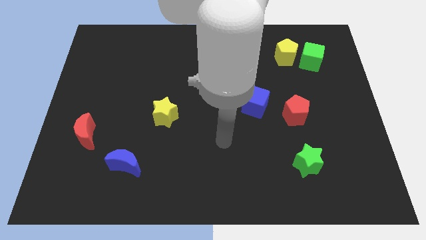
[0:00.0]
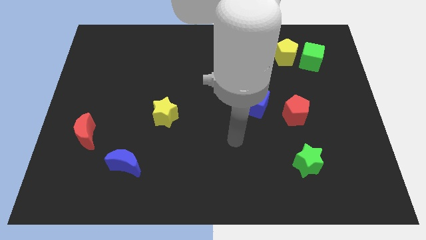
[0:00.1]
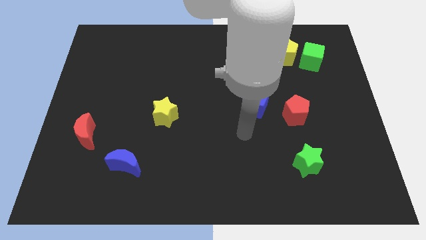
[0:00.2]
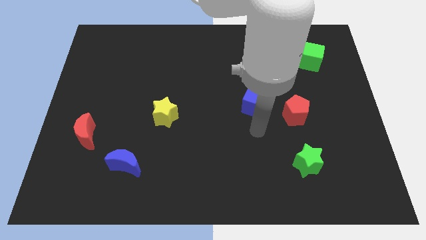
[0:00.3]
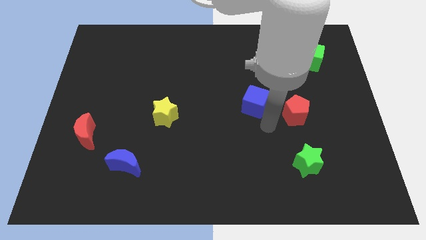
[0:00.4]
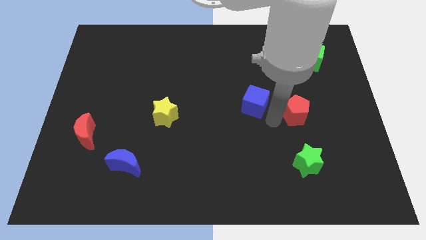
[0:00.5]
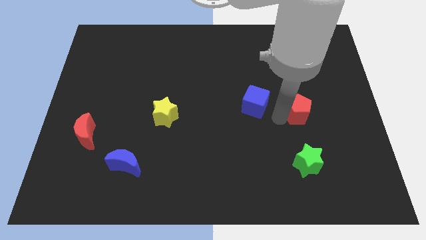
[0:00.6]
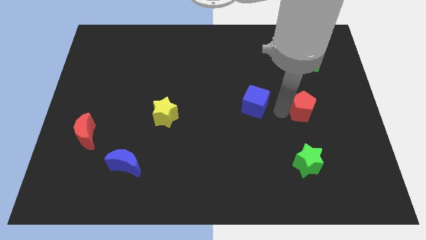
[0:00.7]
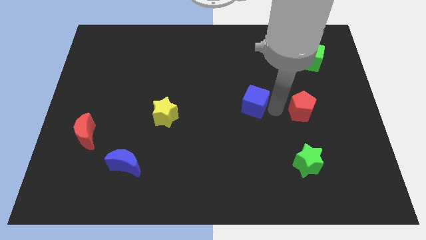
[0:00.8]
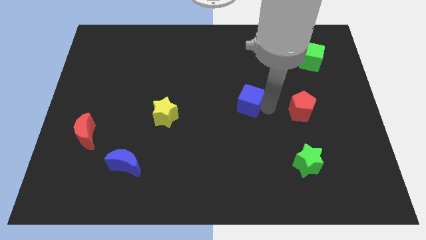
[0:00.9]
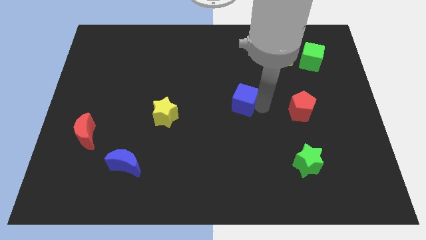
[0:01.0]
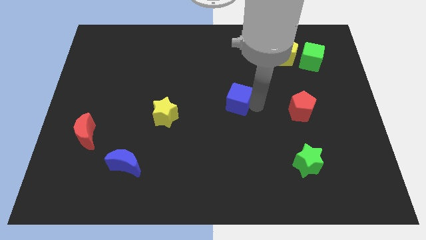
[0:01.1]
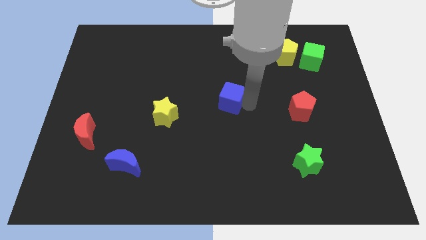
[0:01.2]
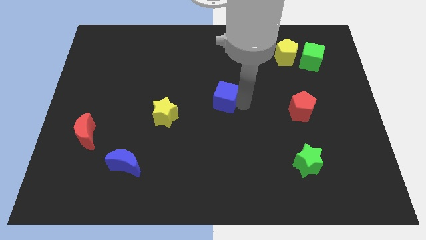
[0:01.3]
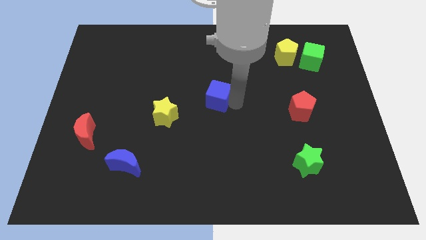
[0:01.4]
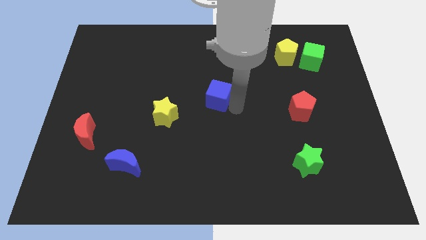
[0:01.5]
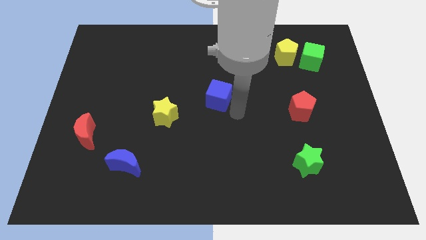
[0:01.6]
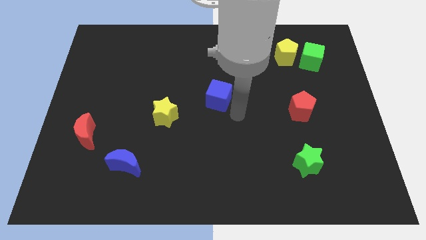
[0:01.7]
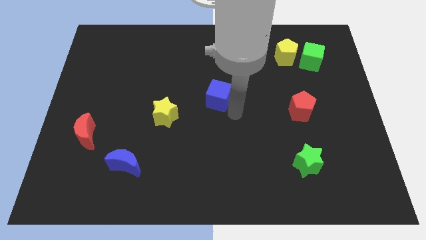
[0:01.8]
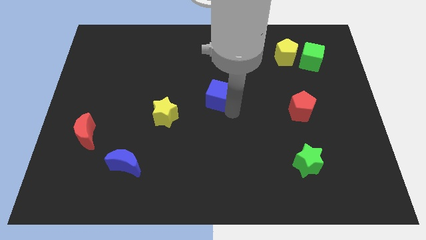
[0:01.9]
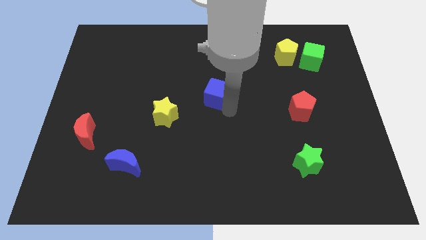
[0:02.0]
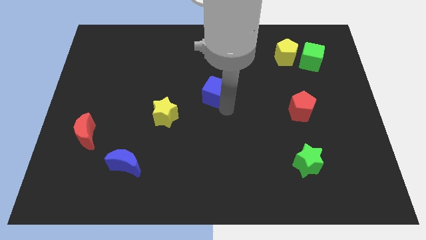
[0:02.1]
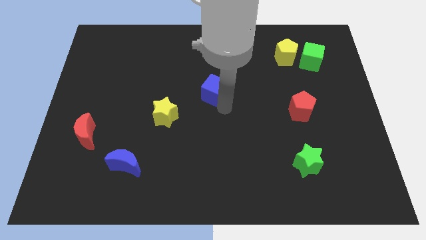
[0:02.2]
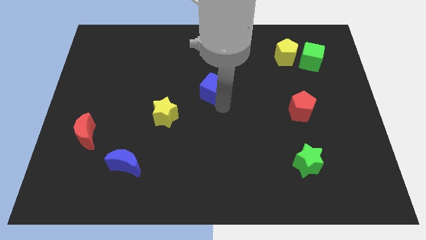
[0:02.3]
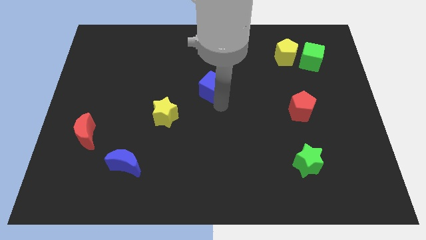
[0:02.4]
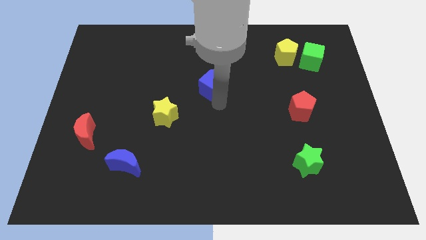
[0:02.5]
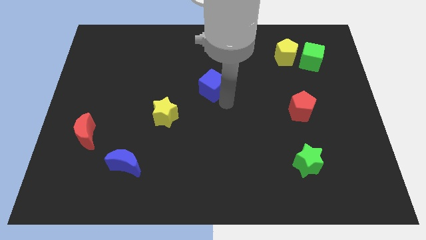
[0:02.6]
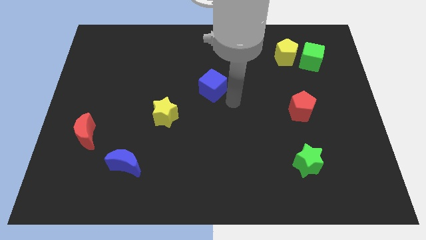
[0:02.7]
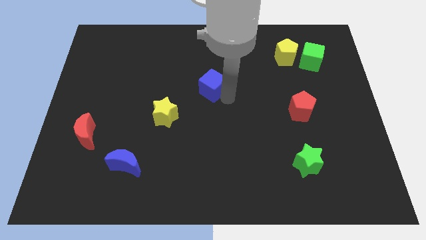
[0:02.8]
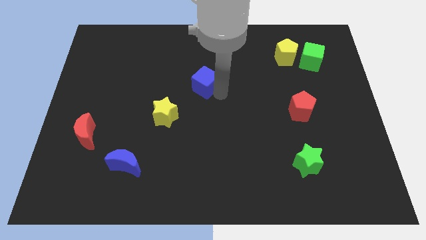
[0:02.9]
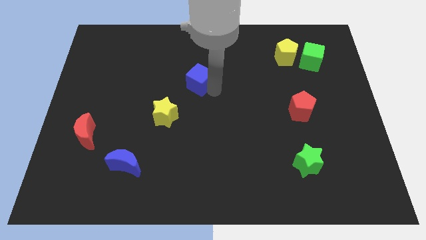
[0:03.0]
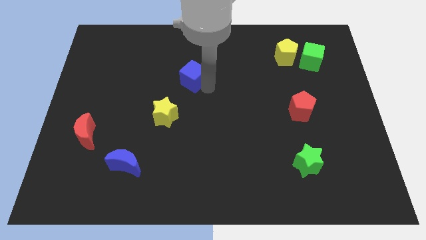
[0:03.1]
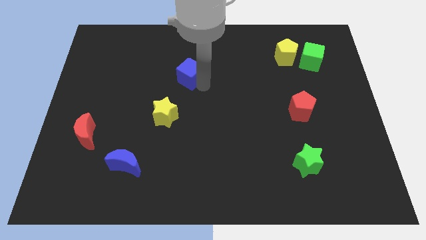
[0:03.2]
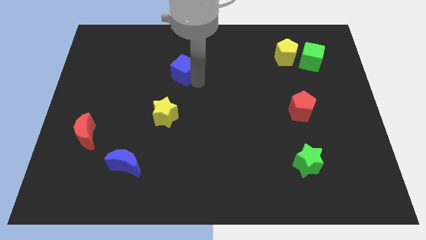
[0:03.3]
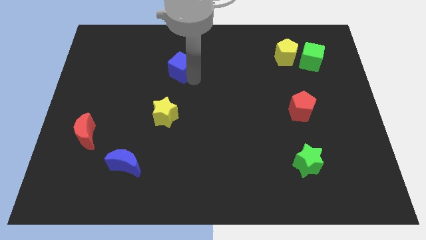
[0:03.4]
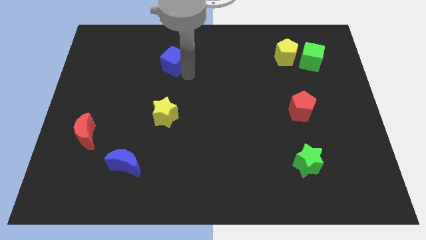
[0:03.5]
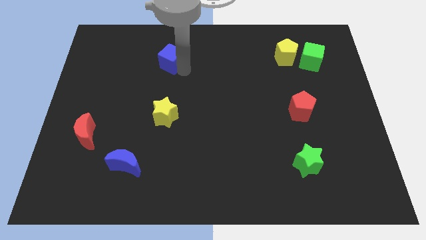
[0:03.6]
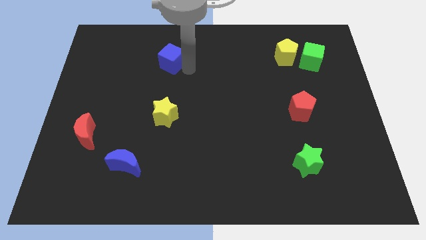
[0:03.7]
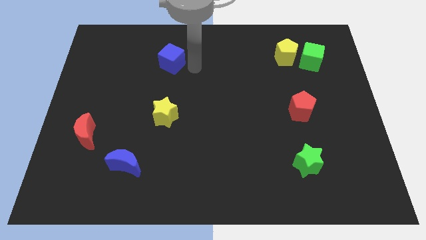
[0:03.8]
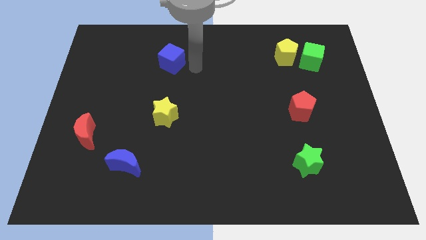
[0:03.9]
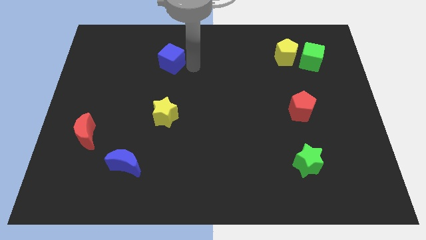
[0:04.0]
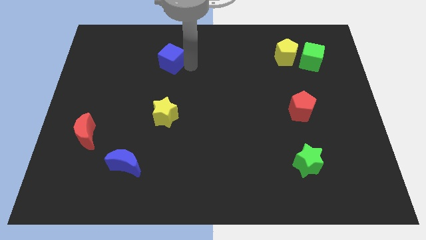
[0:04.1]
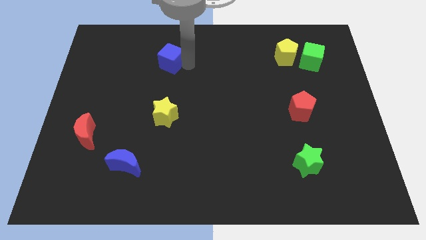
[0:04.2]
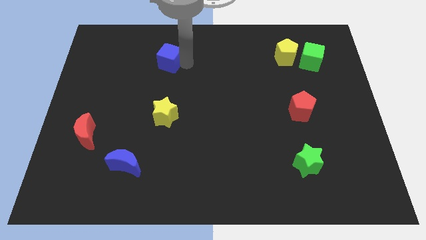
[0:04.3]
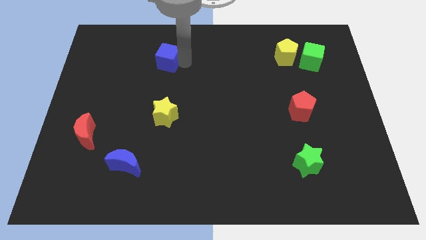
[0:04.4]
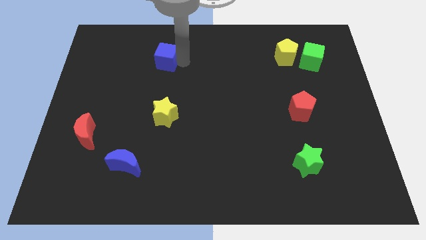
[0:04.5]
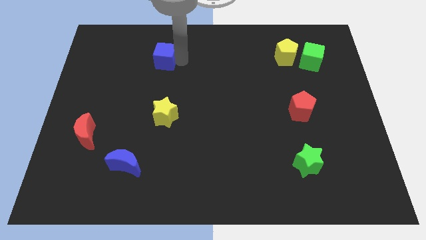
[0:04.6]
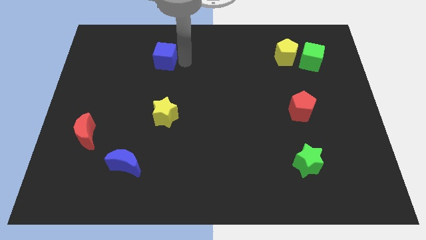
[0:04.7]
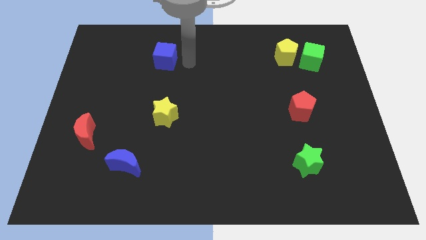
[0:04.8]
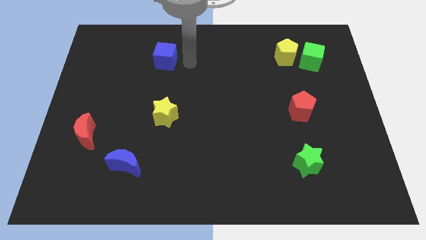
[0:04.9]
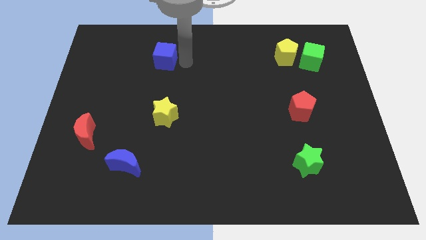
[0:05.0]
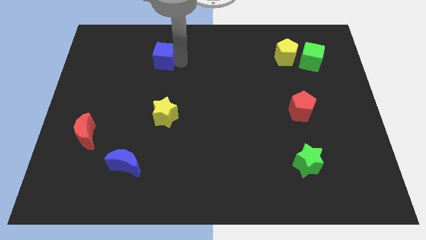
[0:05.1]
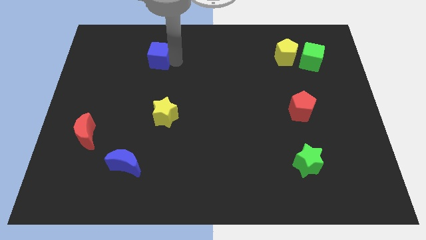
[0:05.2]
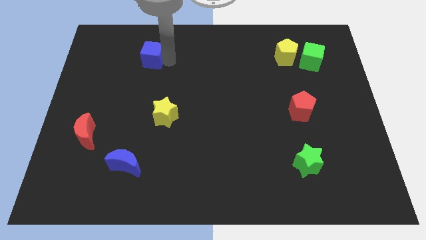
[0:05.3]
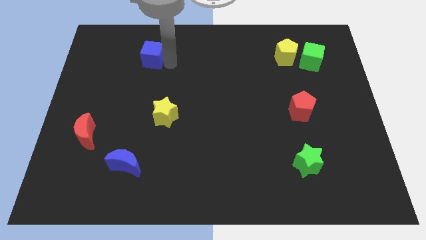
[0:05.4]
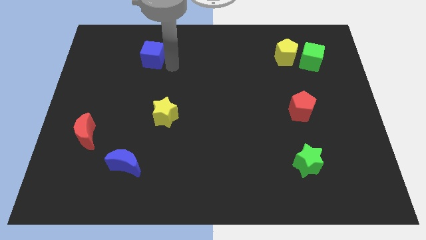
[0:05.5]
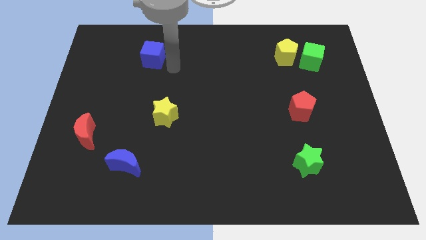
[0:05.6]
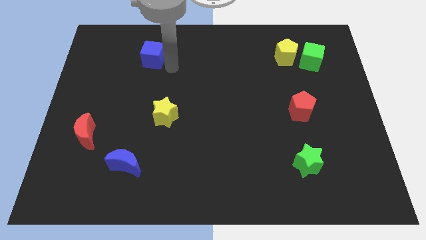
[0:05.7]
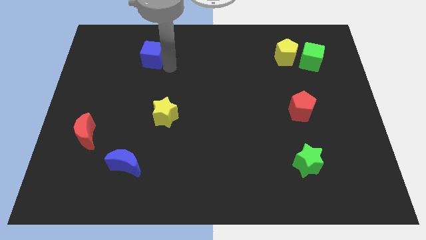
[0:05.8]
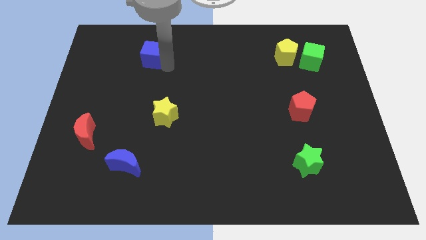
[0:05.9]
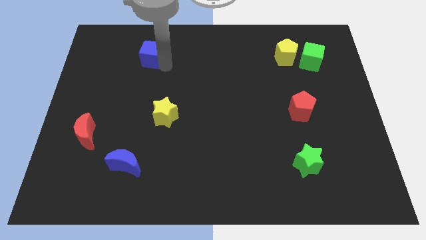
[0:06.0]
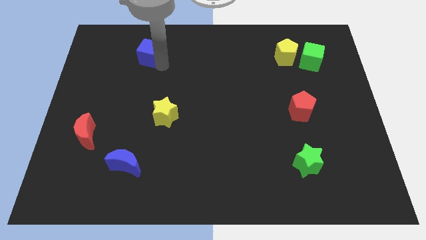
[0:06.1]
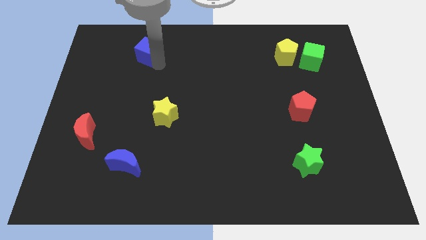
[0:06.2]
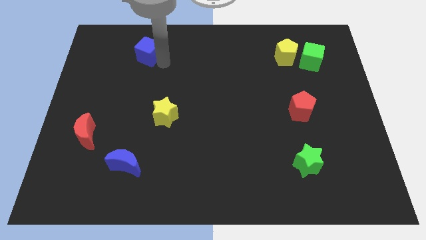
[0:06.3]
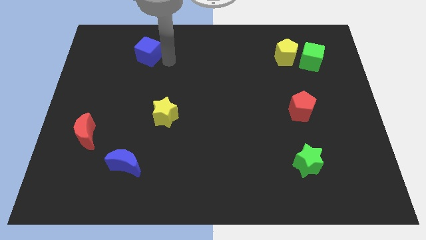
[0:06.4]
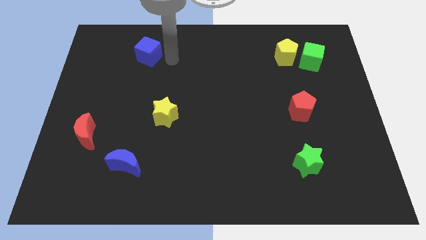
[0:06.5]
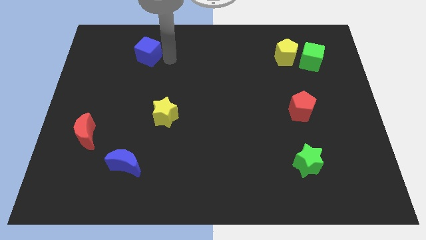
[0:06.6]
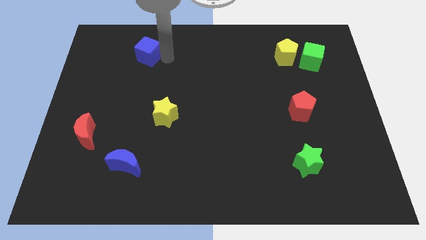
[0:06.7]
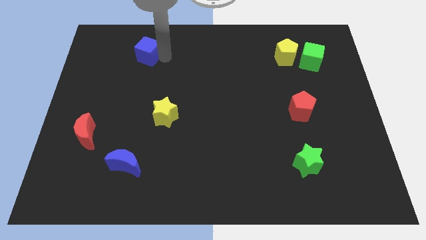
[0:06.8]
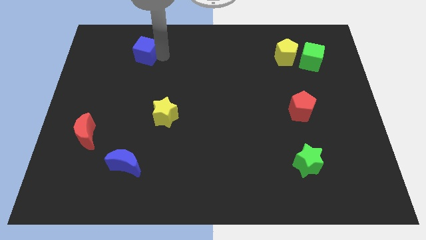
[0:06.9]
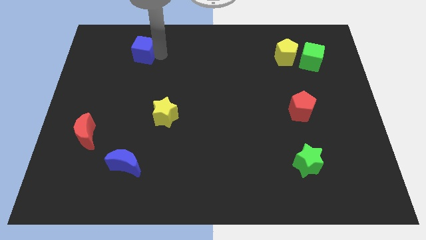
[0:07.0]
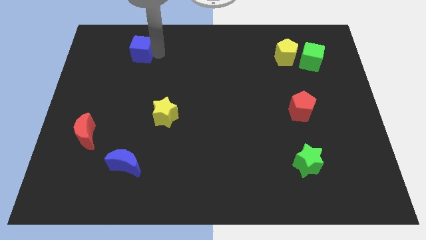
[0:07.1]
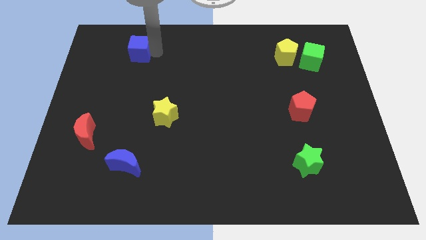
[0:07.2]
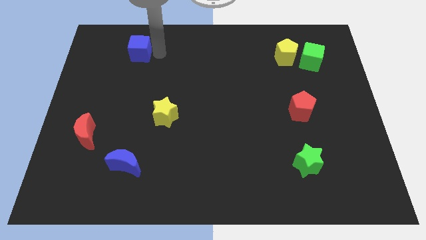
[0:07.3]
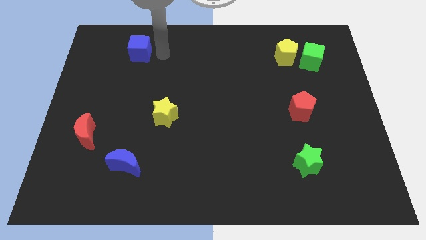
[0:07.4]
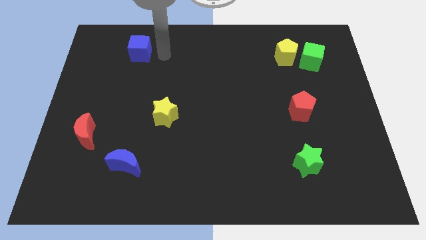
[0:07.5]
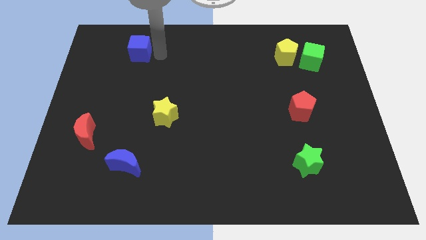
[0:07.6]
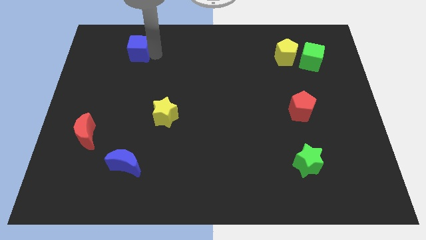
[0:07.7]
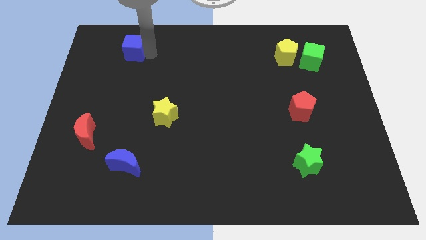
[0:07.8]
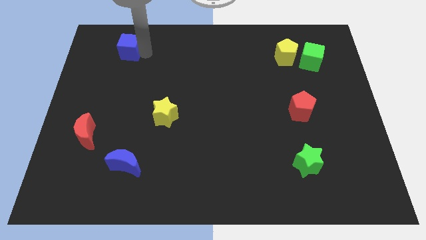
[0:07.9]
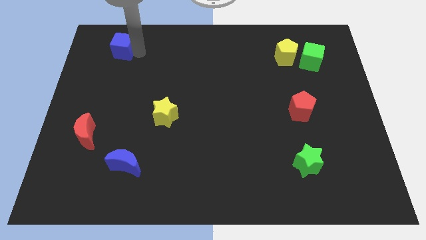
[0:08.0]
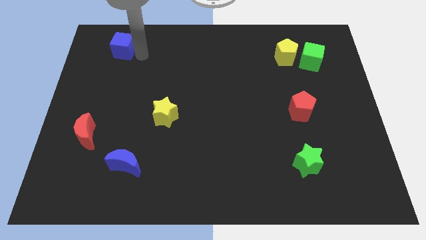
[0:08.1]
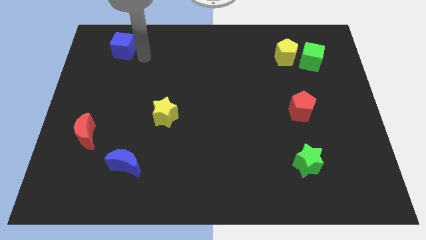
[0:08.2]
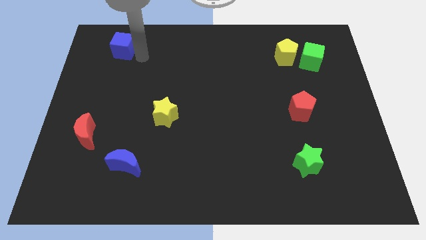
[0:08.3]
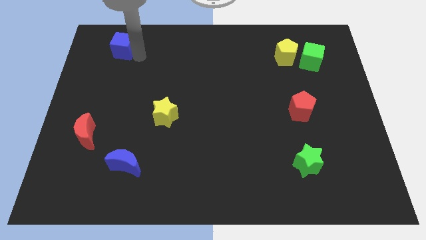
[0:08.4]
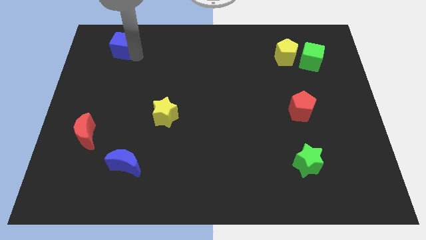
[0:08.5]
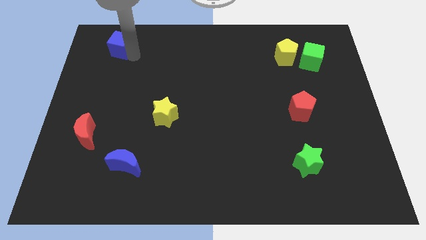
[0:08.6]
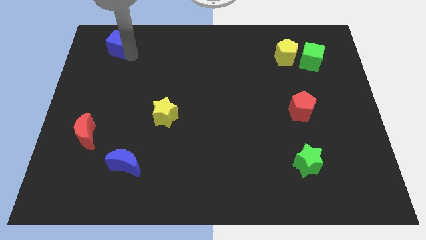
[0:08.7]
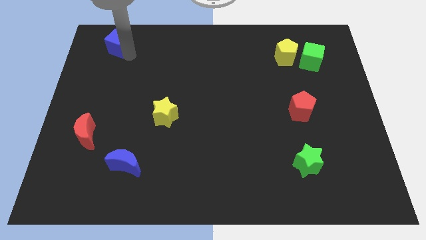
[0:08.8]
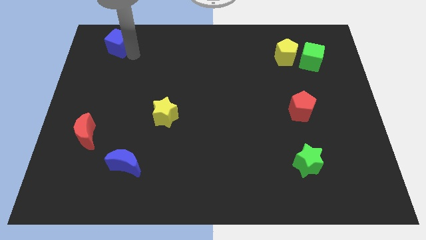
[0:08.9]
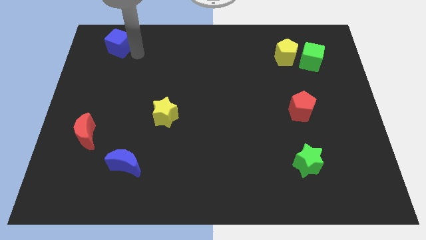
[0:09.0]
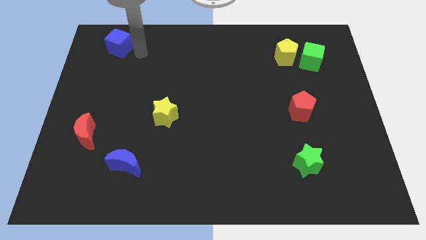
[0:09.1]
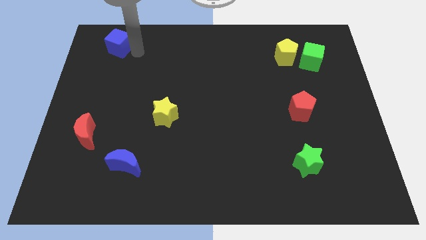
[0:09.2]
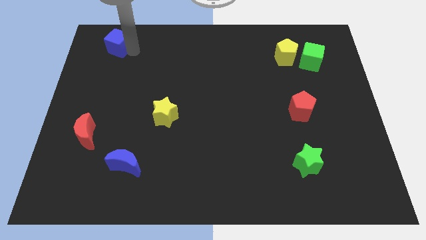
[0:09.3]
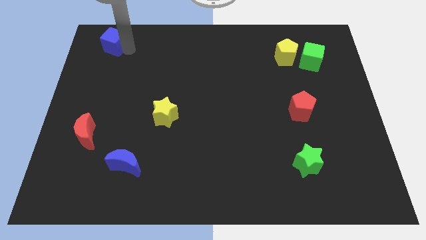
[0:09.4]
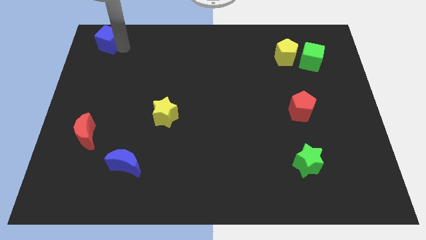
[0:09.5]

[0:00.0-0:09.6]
put the blue cube to the top left of the board
